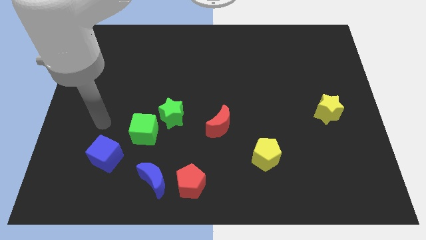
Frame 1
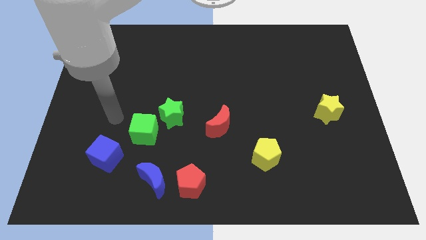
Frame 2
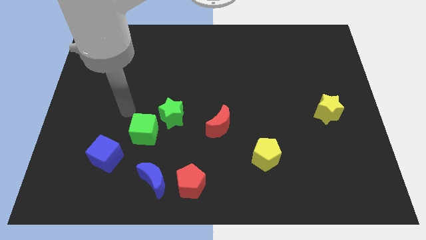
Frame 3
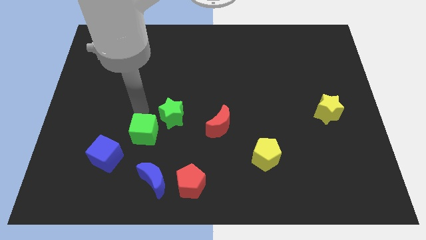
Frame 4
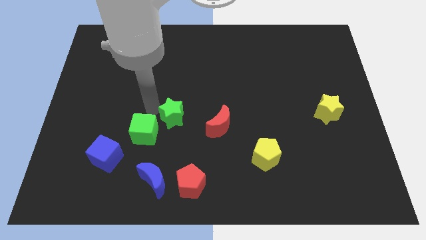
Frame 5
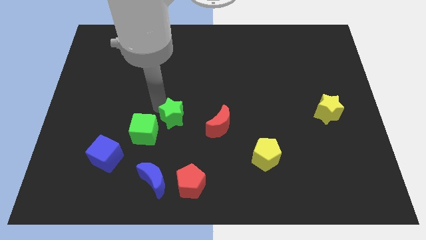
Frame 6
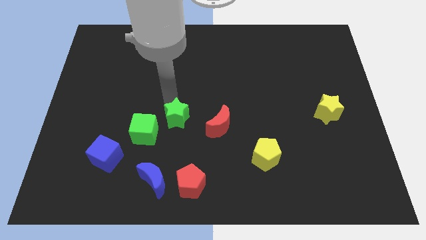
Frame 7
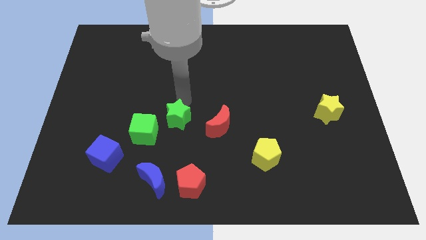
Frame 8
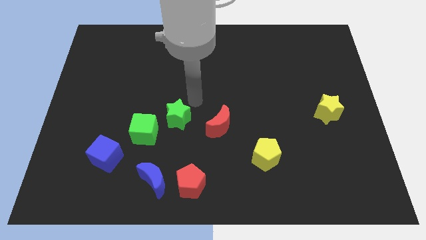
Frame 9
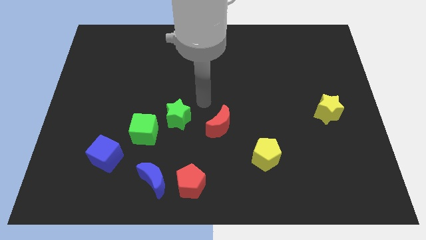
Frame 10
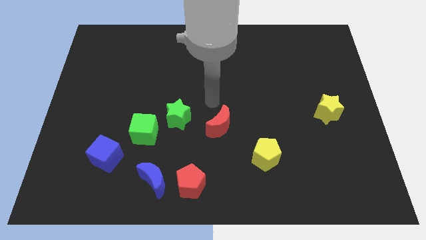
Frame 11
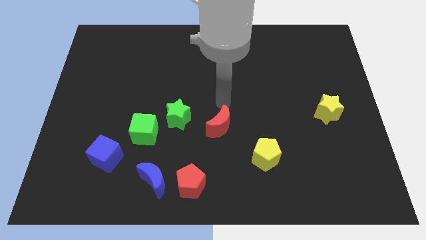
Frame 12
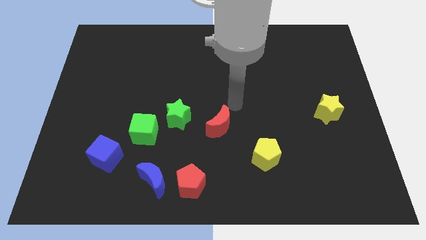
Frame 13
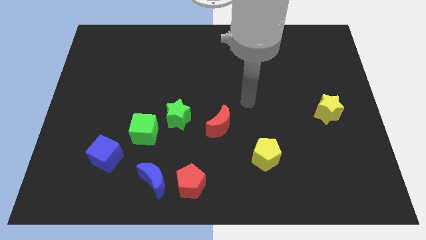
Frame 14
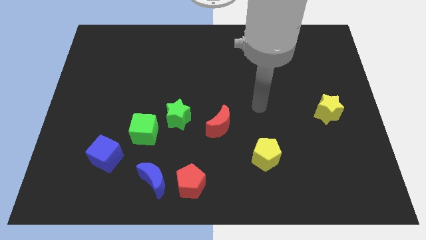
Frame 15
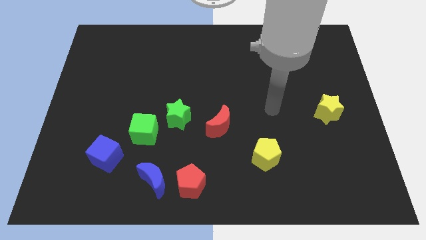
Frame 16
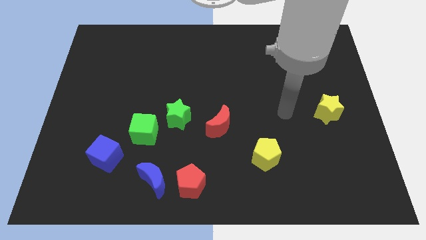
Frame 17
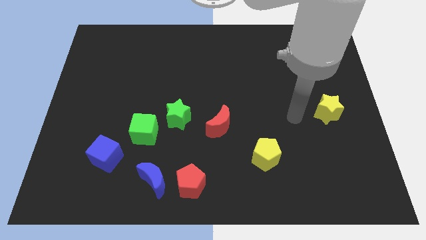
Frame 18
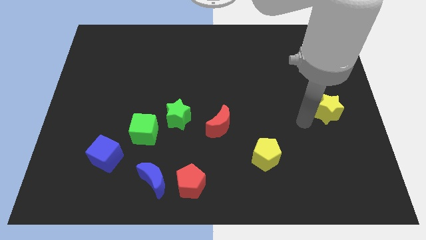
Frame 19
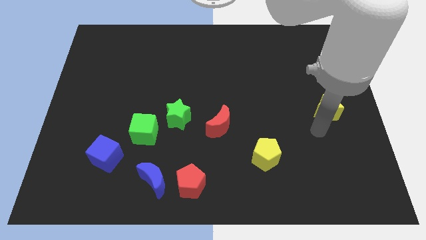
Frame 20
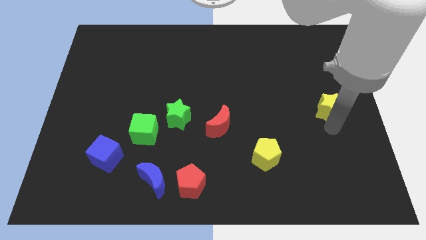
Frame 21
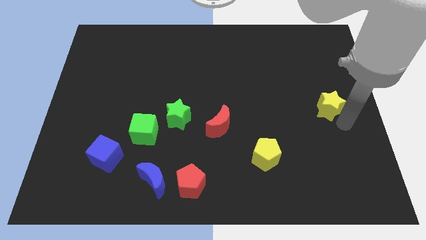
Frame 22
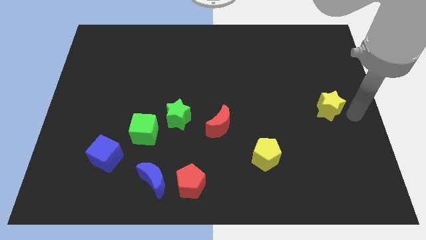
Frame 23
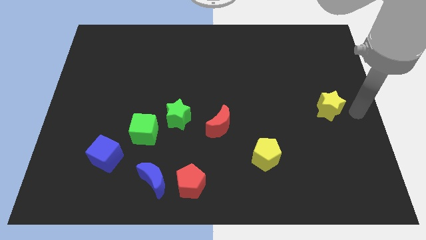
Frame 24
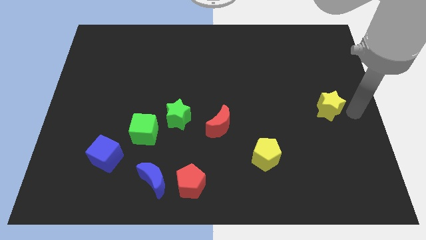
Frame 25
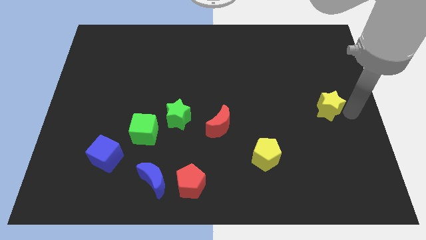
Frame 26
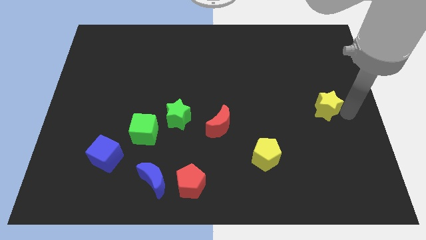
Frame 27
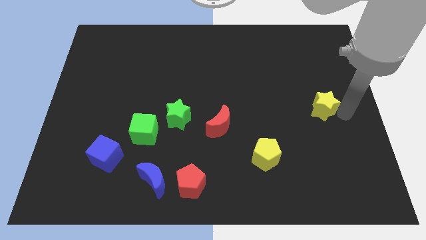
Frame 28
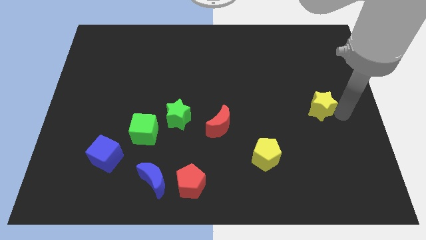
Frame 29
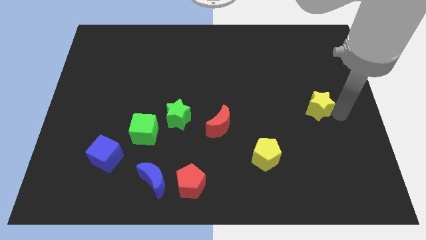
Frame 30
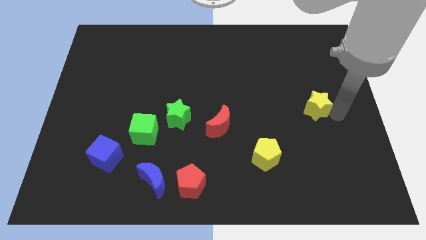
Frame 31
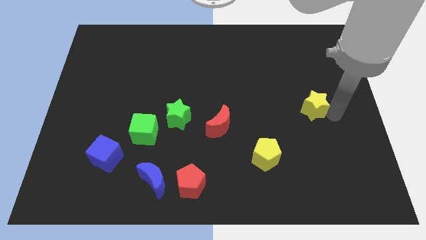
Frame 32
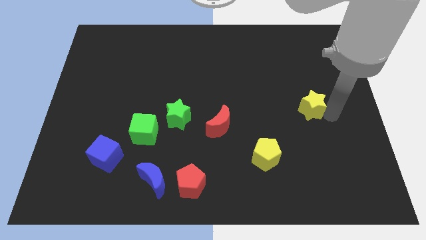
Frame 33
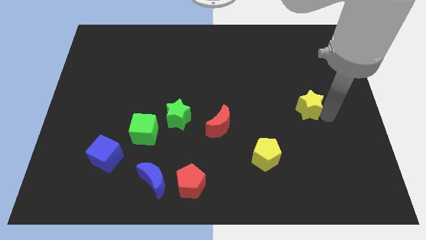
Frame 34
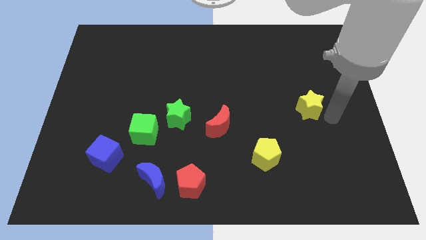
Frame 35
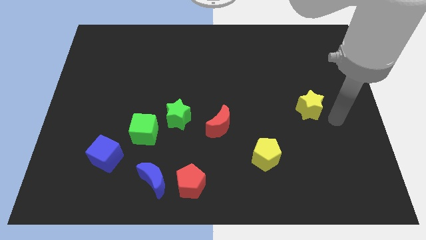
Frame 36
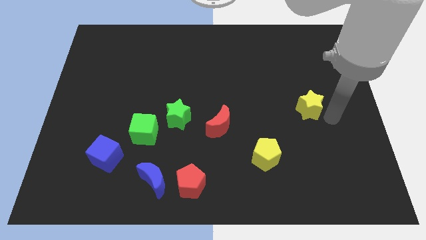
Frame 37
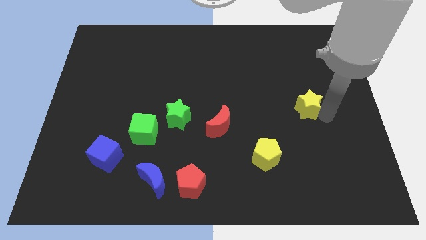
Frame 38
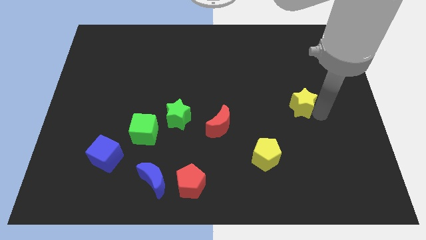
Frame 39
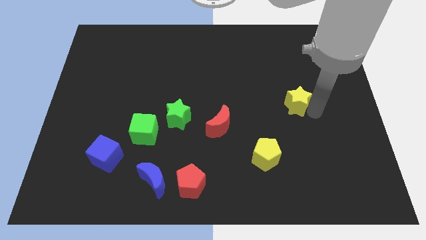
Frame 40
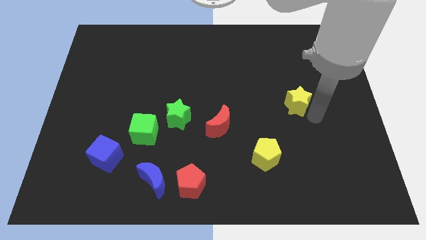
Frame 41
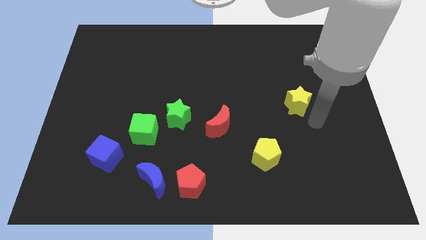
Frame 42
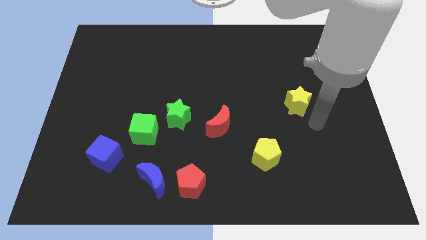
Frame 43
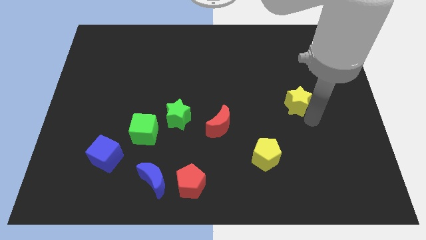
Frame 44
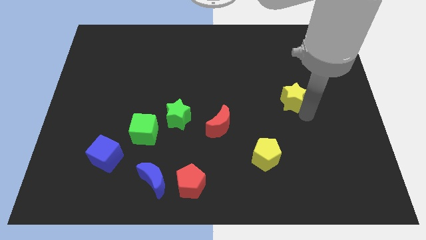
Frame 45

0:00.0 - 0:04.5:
move the yellow star up and to the left somewhat

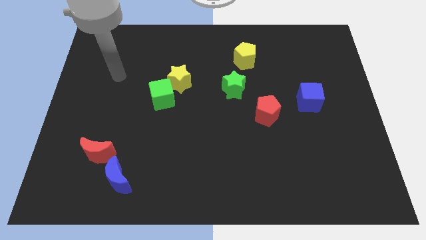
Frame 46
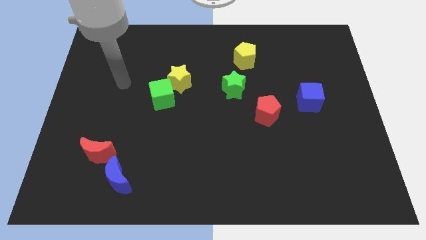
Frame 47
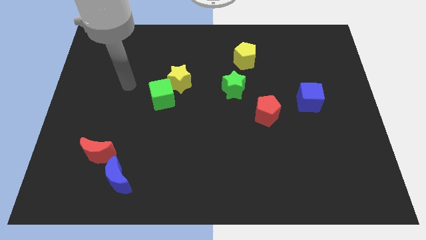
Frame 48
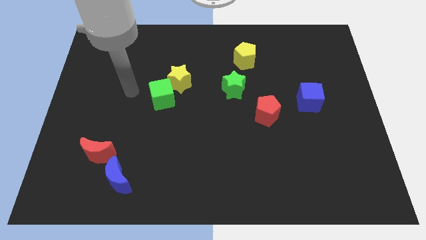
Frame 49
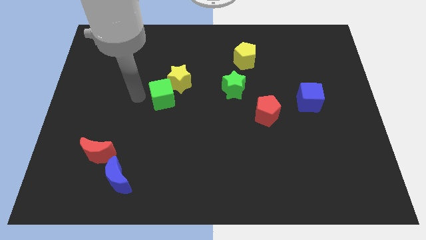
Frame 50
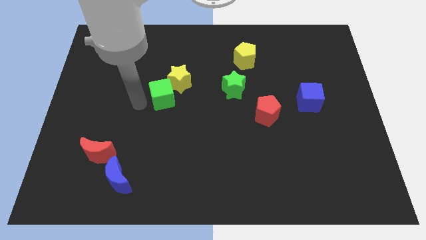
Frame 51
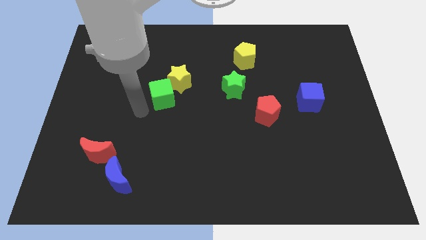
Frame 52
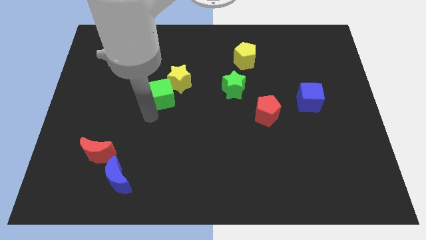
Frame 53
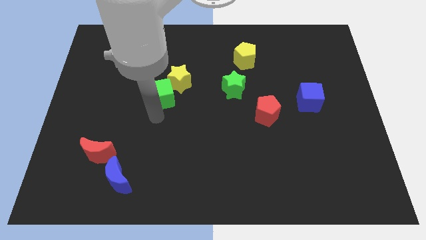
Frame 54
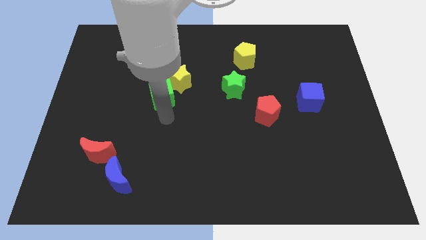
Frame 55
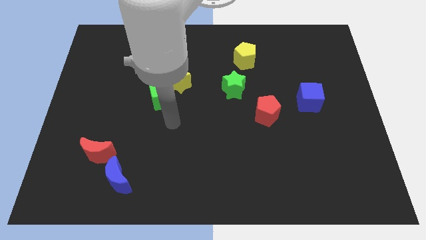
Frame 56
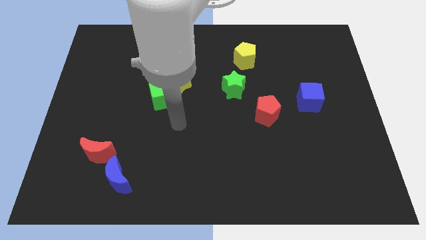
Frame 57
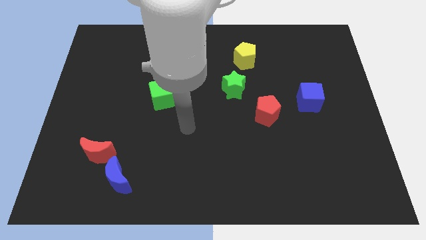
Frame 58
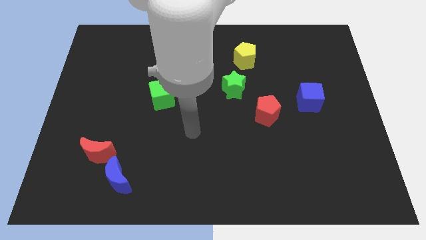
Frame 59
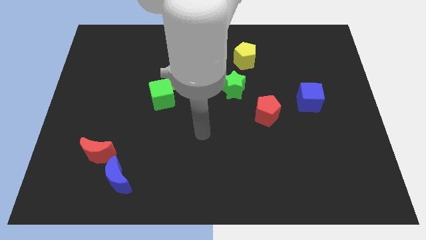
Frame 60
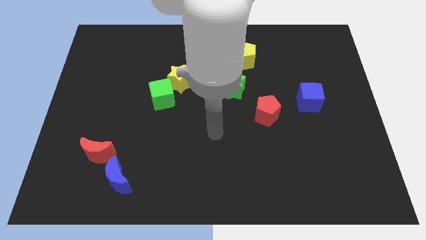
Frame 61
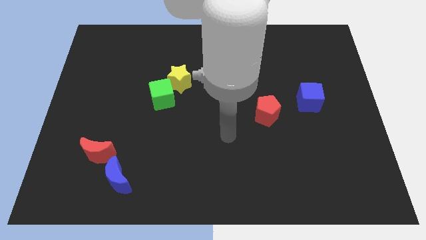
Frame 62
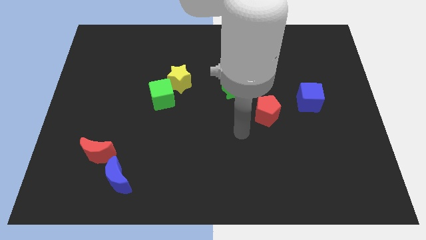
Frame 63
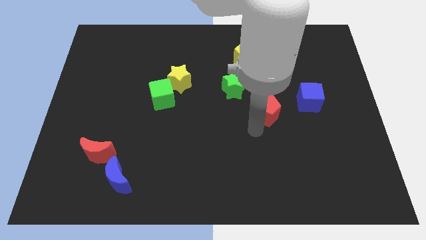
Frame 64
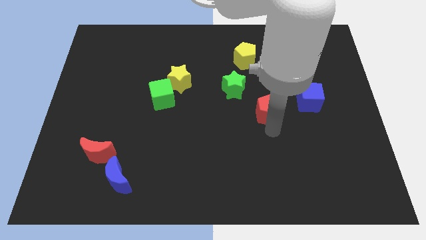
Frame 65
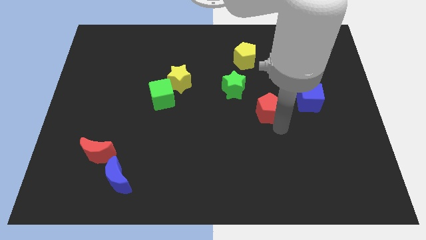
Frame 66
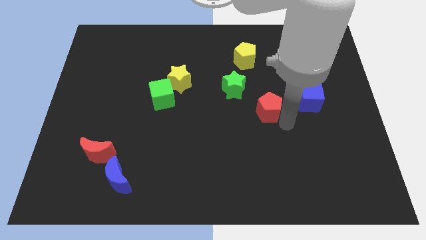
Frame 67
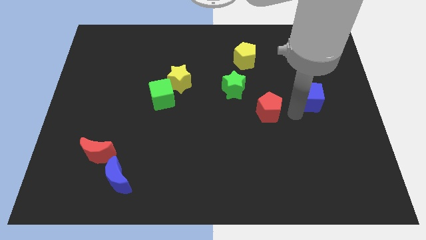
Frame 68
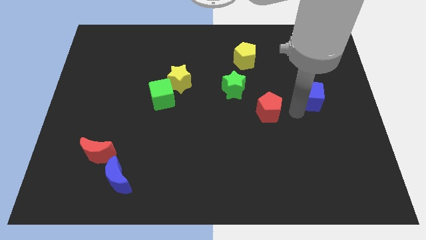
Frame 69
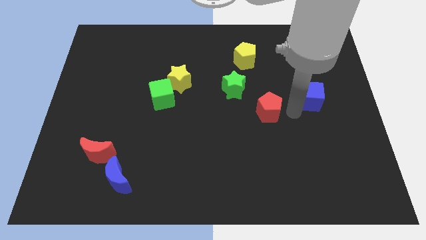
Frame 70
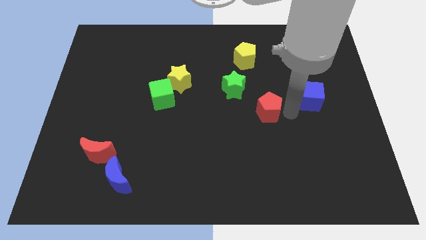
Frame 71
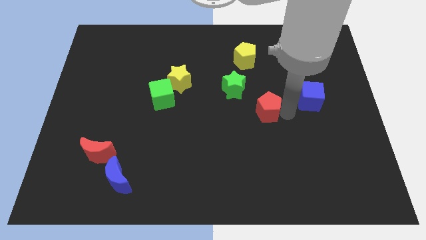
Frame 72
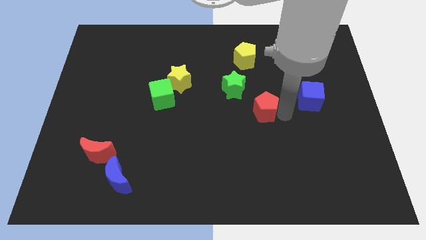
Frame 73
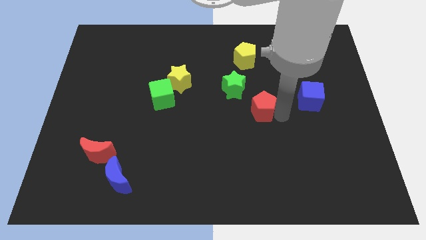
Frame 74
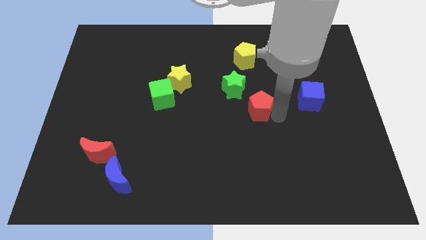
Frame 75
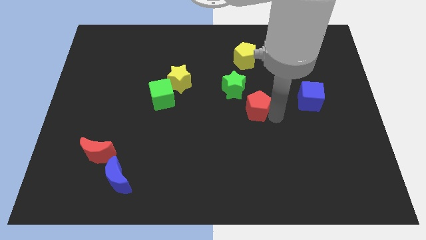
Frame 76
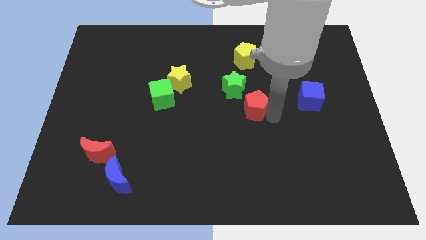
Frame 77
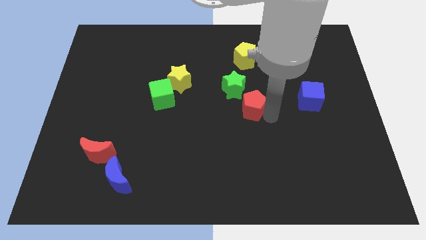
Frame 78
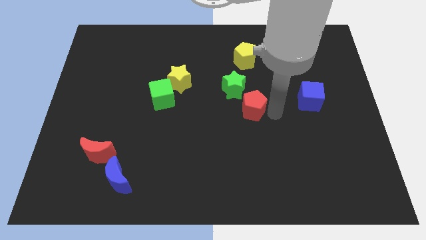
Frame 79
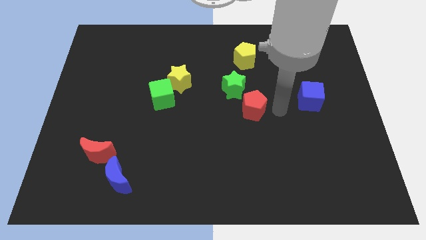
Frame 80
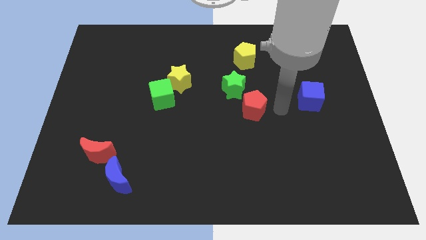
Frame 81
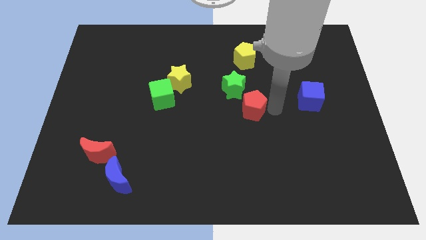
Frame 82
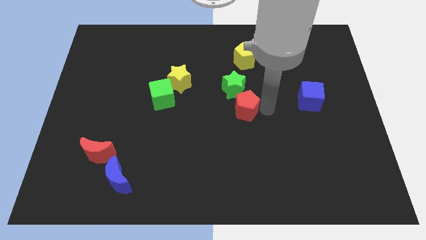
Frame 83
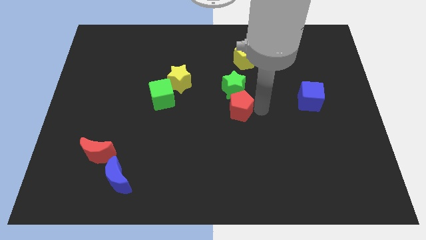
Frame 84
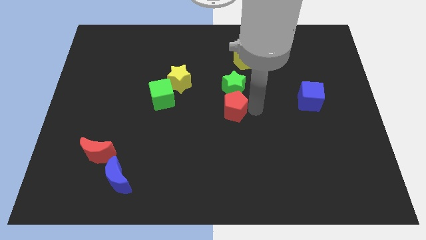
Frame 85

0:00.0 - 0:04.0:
slightly slide the red pentagon left
